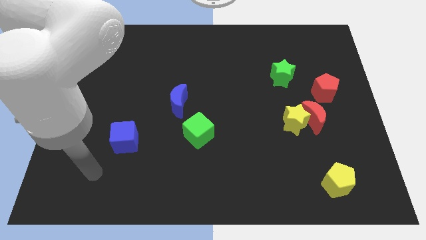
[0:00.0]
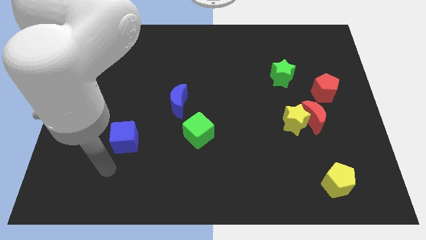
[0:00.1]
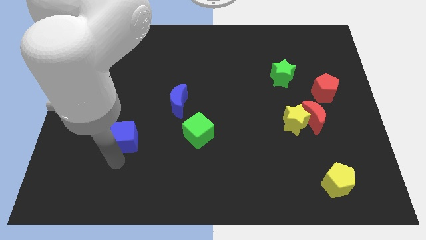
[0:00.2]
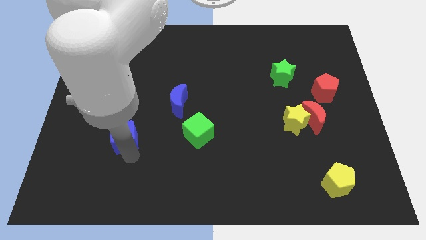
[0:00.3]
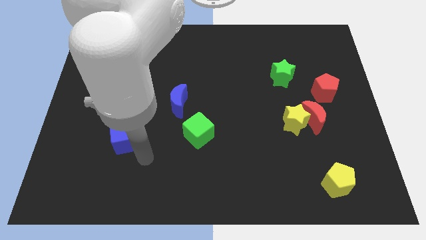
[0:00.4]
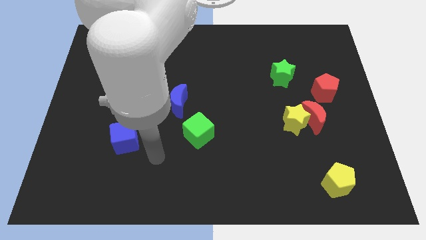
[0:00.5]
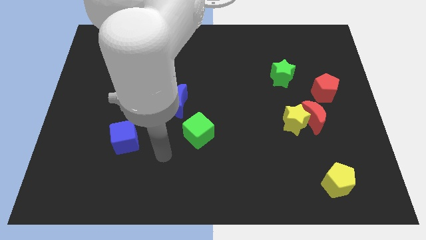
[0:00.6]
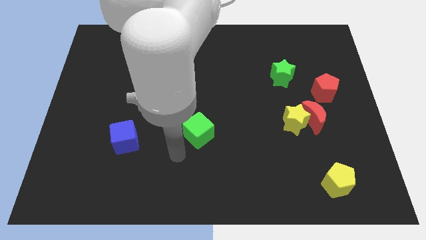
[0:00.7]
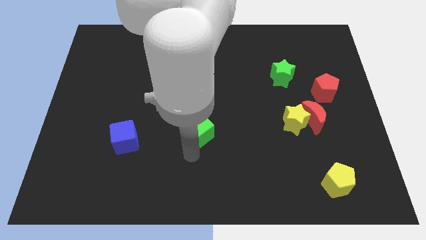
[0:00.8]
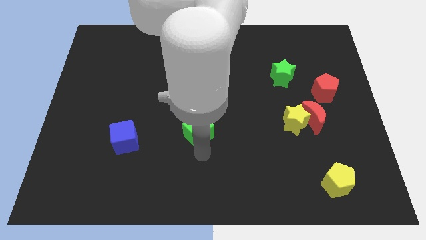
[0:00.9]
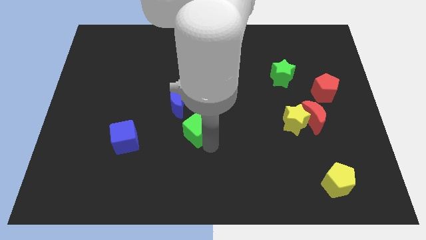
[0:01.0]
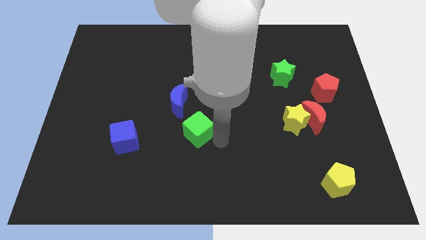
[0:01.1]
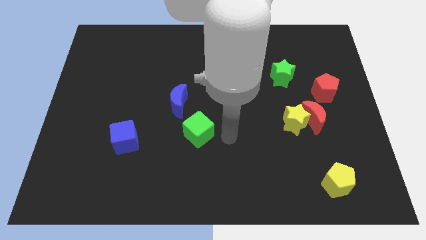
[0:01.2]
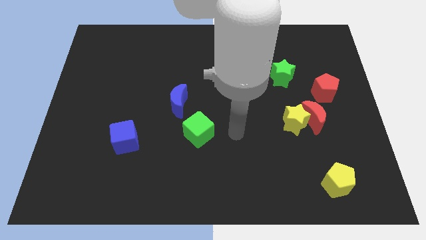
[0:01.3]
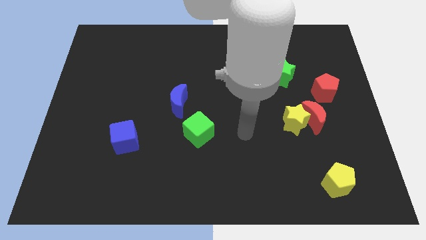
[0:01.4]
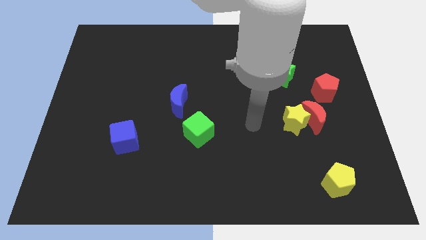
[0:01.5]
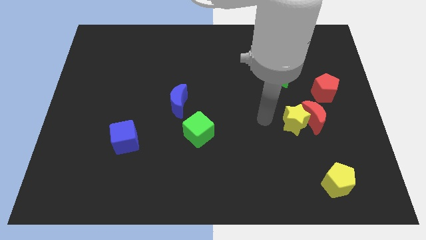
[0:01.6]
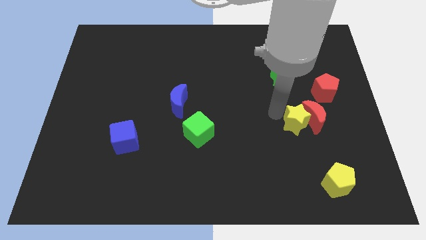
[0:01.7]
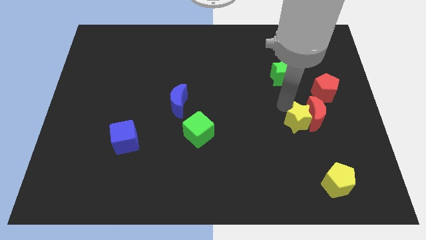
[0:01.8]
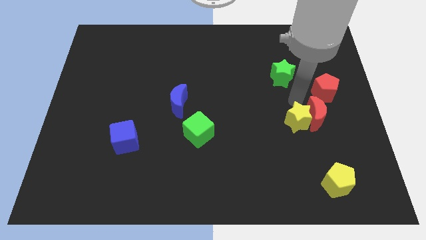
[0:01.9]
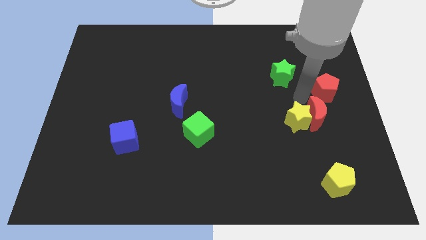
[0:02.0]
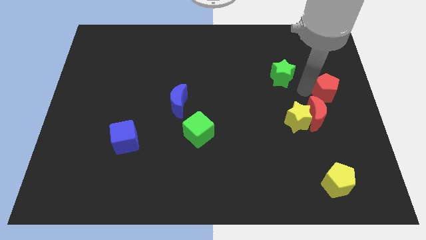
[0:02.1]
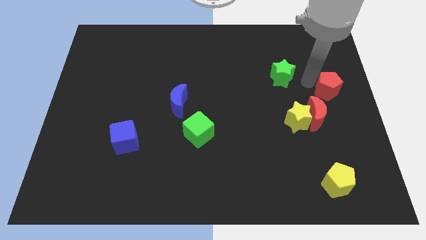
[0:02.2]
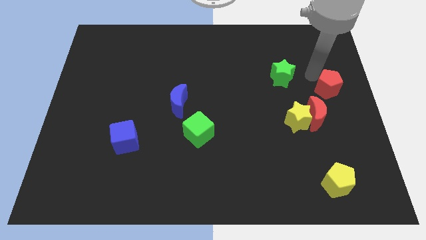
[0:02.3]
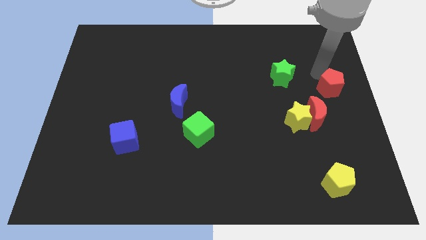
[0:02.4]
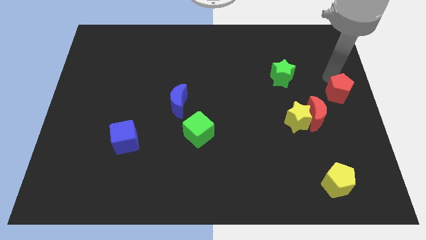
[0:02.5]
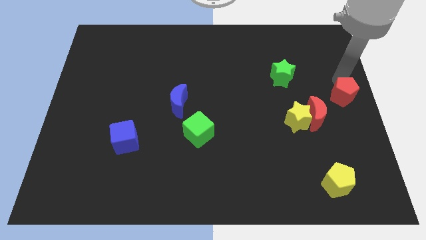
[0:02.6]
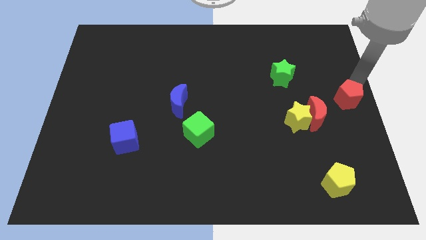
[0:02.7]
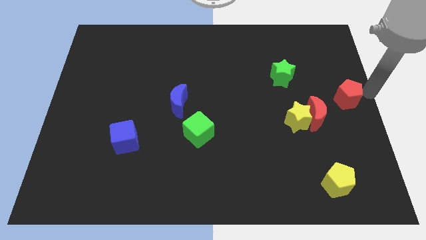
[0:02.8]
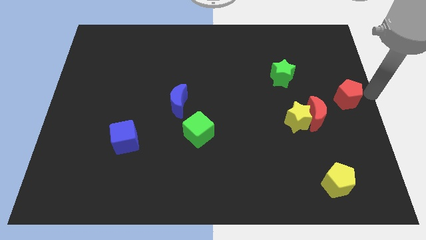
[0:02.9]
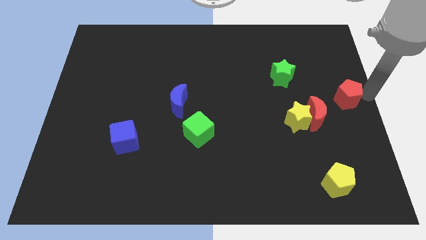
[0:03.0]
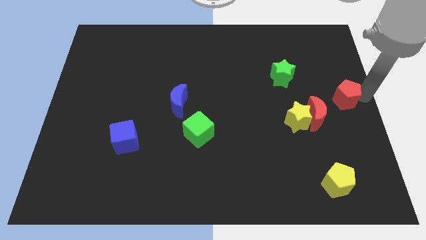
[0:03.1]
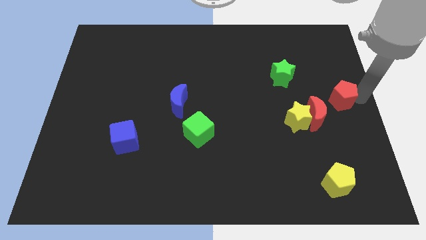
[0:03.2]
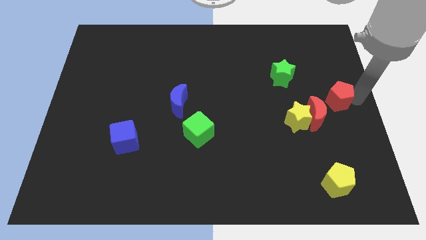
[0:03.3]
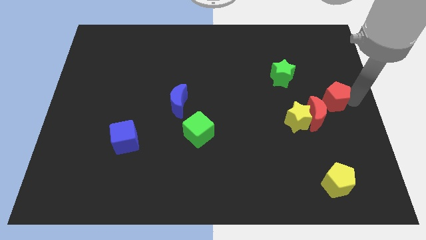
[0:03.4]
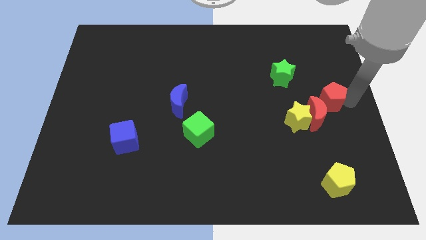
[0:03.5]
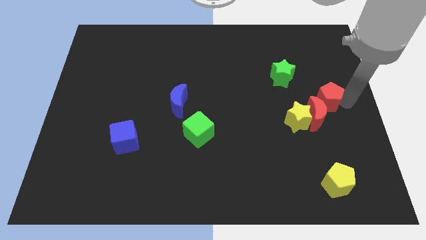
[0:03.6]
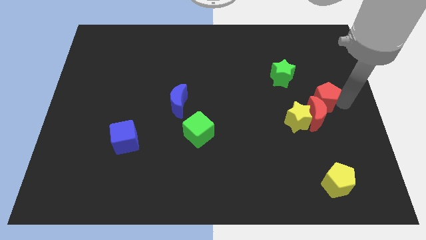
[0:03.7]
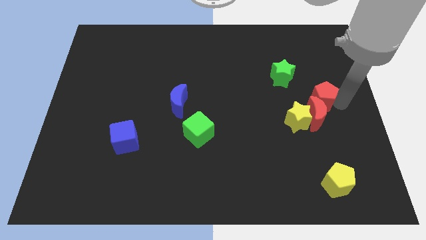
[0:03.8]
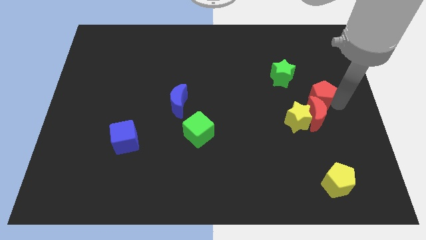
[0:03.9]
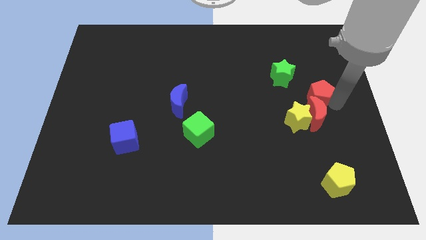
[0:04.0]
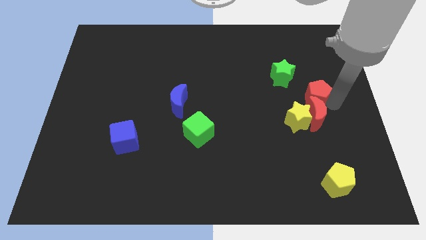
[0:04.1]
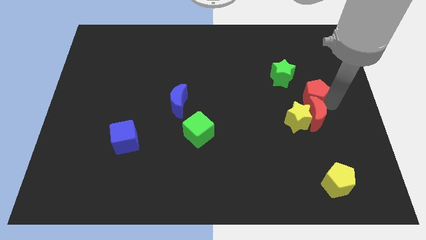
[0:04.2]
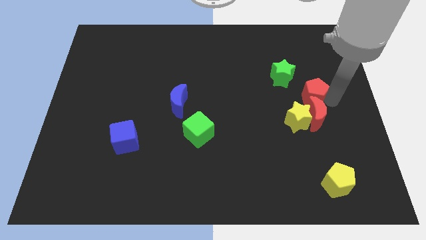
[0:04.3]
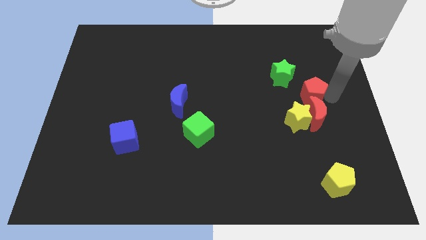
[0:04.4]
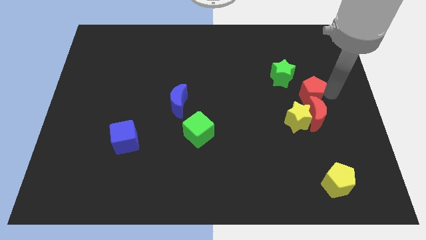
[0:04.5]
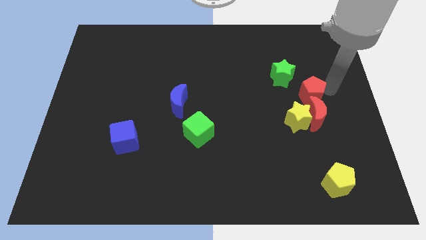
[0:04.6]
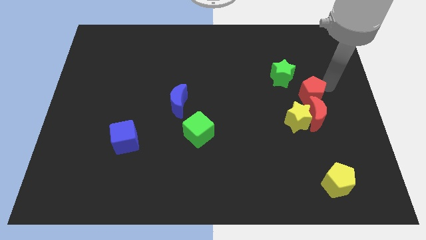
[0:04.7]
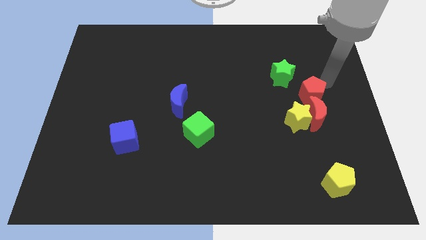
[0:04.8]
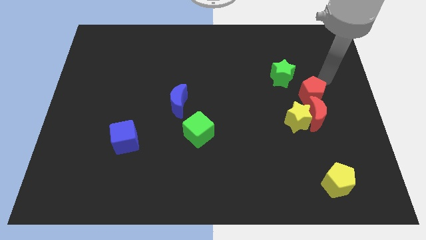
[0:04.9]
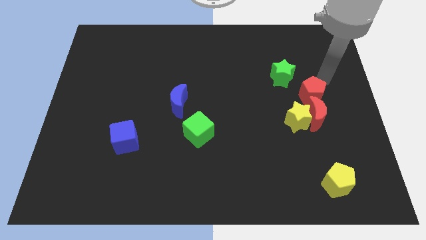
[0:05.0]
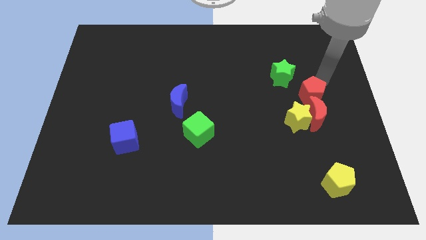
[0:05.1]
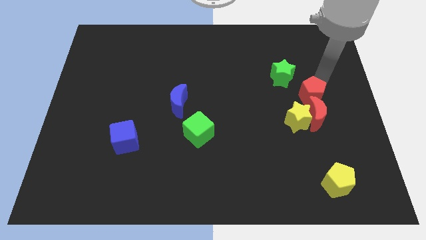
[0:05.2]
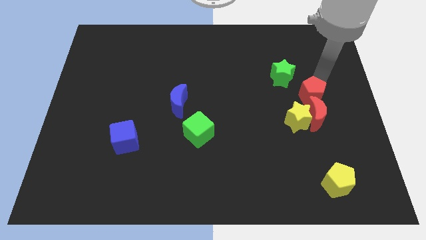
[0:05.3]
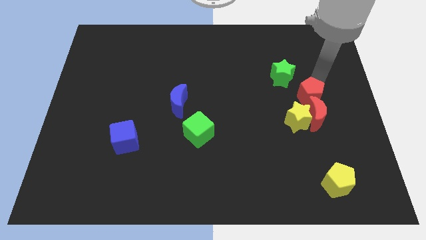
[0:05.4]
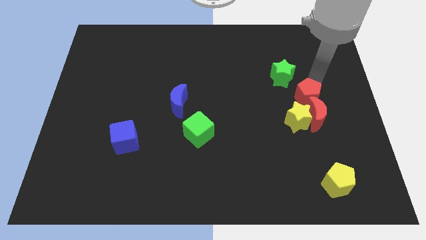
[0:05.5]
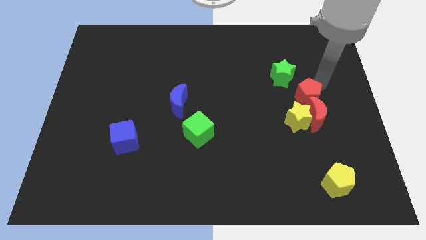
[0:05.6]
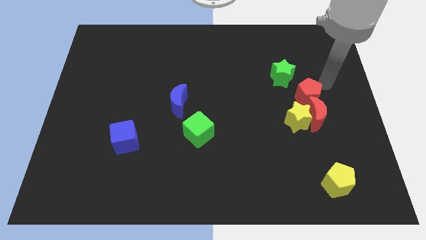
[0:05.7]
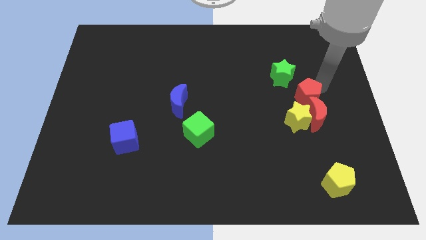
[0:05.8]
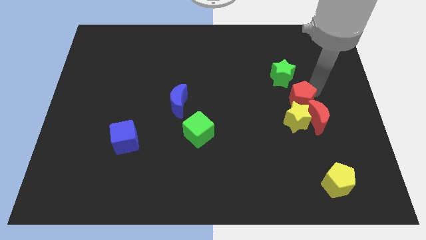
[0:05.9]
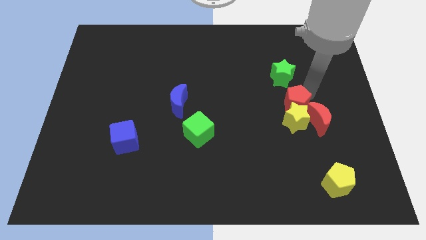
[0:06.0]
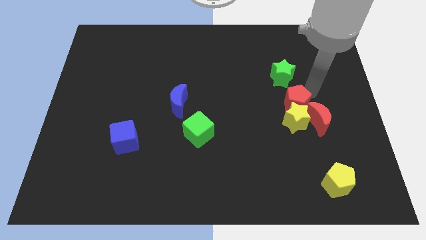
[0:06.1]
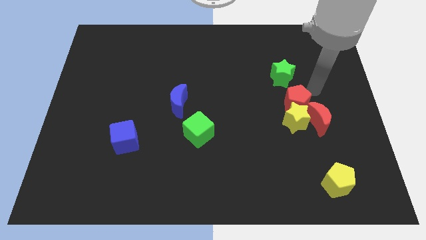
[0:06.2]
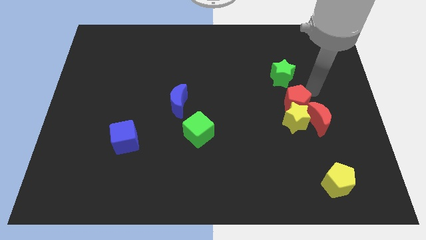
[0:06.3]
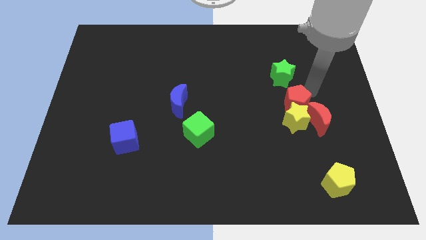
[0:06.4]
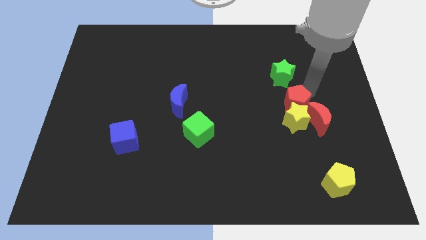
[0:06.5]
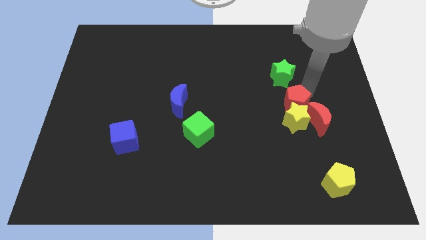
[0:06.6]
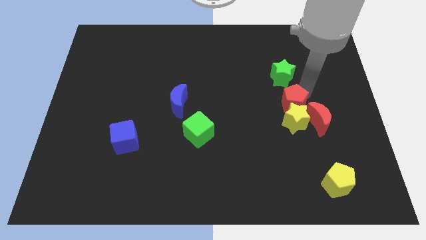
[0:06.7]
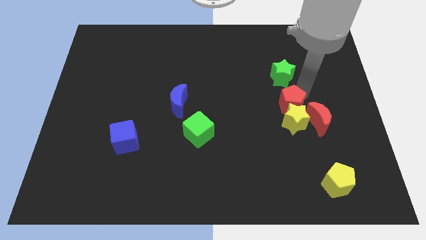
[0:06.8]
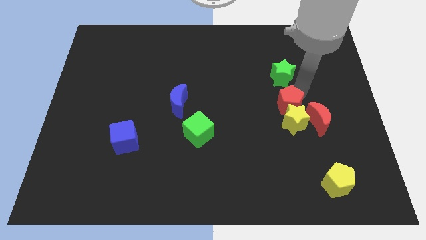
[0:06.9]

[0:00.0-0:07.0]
put the red pentagon left of the red moon

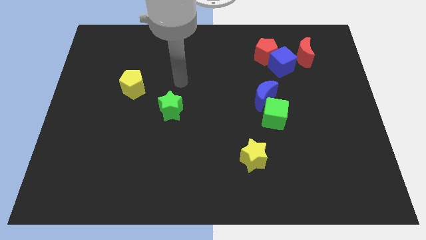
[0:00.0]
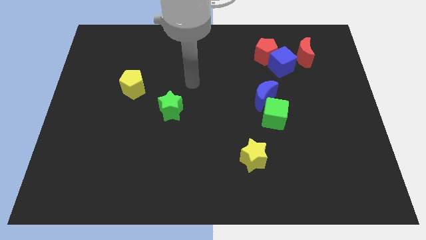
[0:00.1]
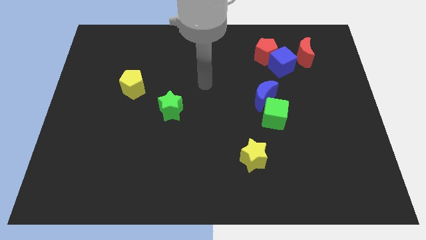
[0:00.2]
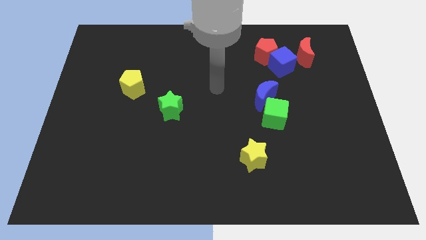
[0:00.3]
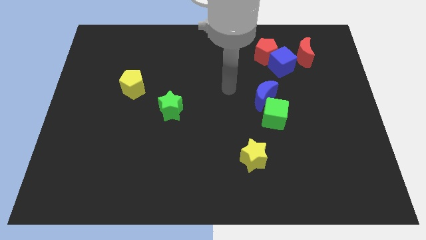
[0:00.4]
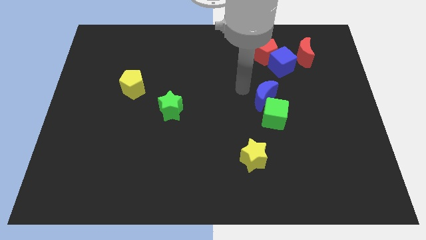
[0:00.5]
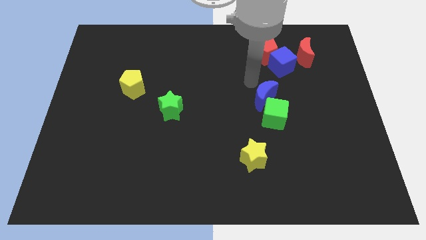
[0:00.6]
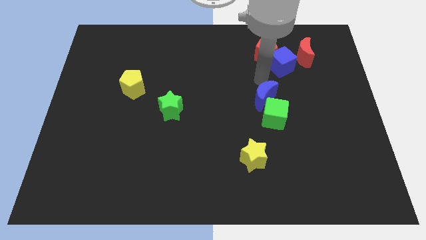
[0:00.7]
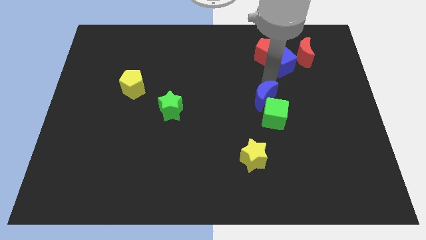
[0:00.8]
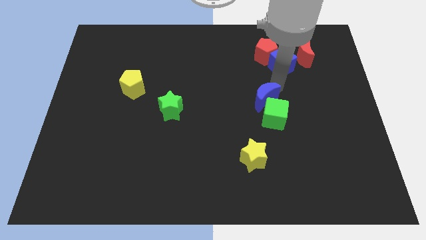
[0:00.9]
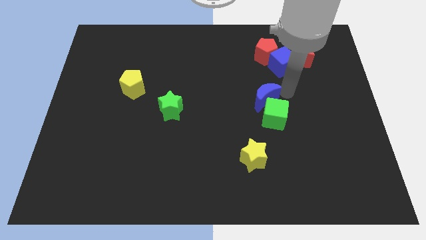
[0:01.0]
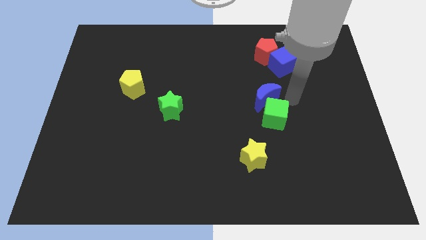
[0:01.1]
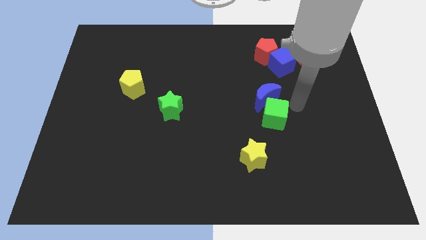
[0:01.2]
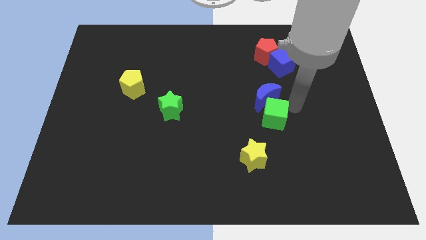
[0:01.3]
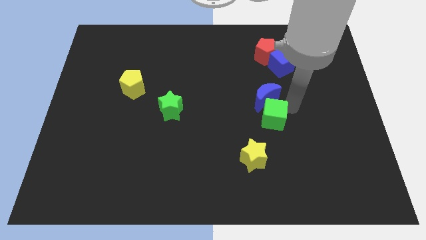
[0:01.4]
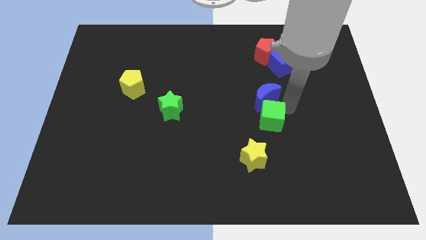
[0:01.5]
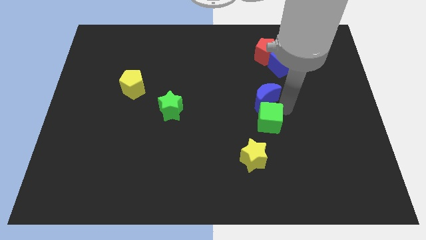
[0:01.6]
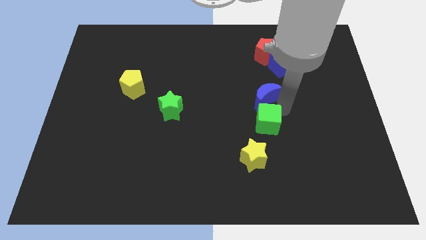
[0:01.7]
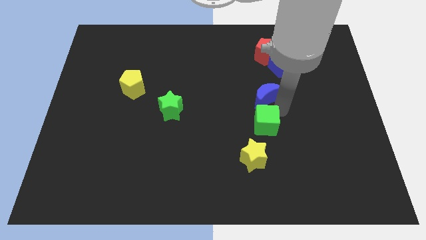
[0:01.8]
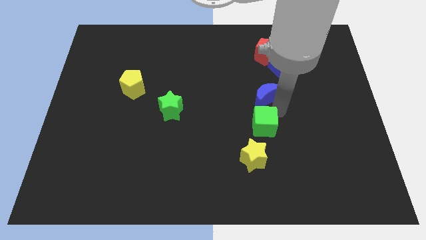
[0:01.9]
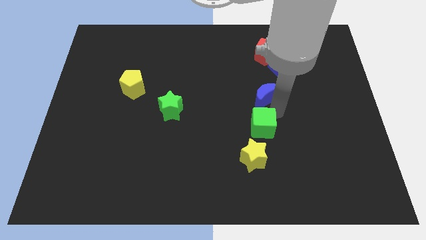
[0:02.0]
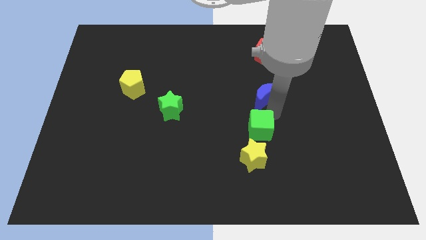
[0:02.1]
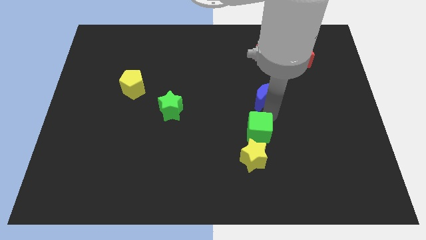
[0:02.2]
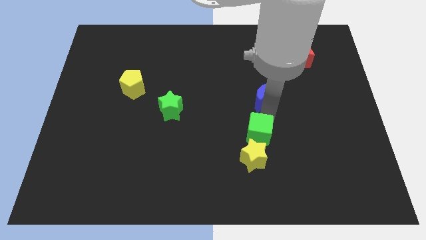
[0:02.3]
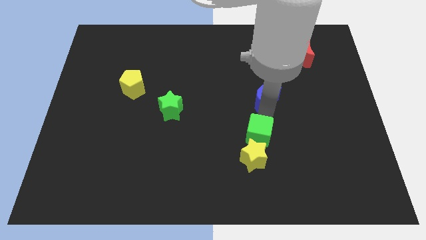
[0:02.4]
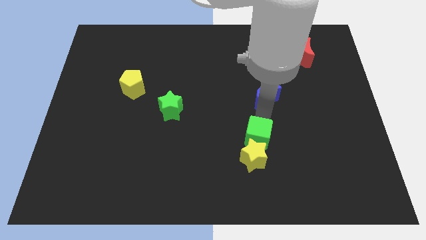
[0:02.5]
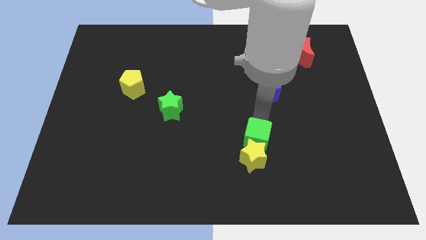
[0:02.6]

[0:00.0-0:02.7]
put the green cube to the top left side of the yellow star
